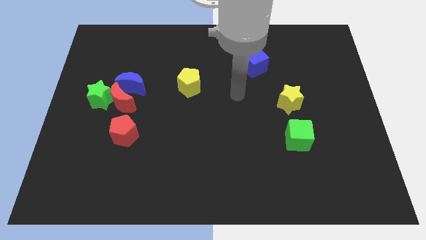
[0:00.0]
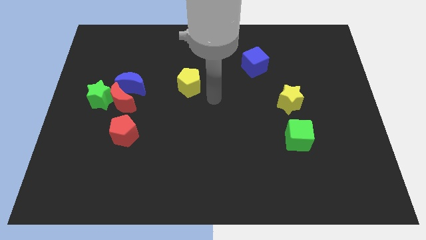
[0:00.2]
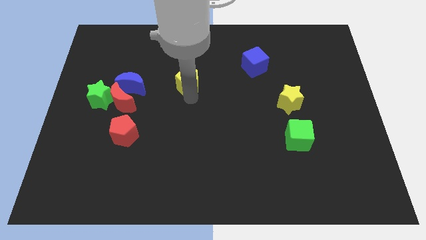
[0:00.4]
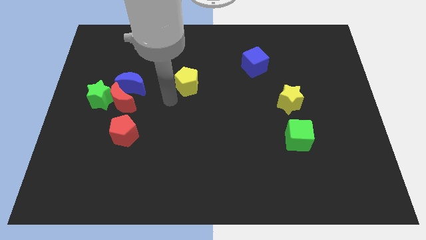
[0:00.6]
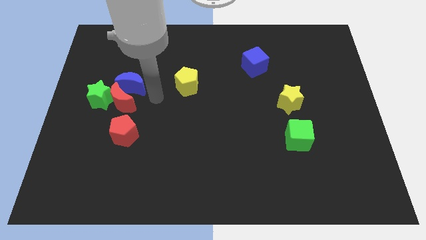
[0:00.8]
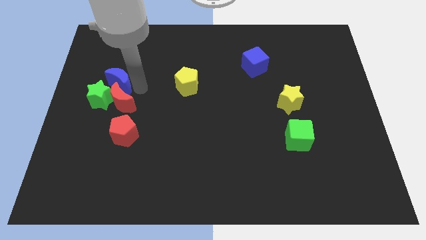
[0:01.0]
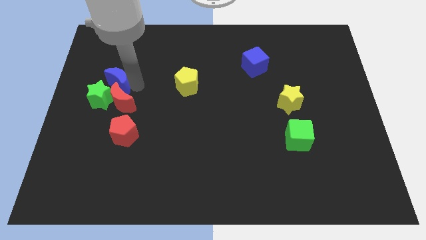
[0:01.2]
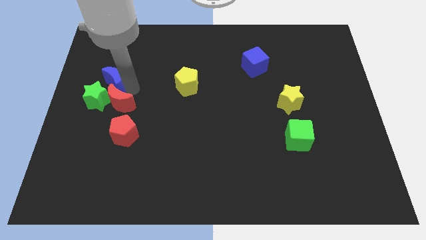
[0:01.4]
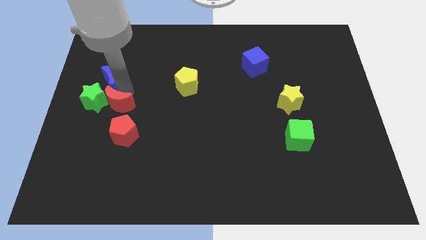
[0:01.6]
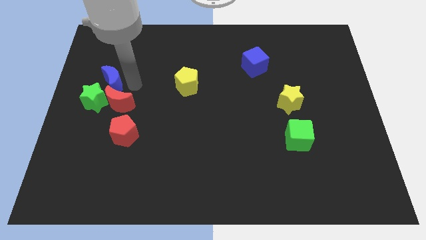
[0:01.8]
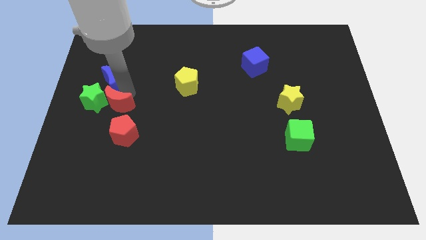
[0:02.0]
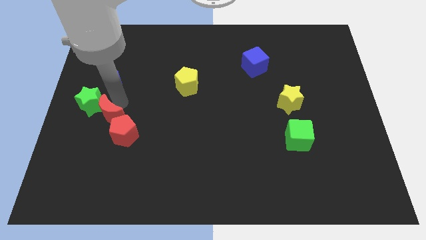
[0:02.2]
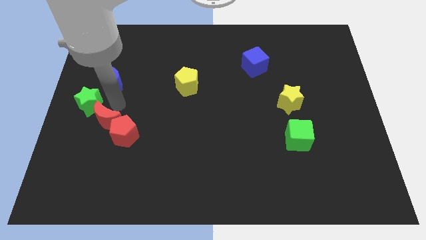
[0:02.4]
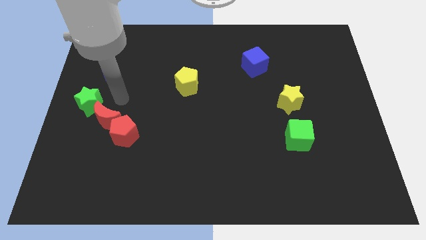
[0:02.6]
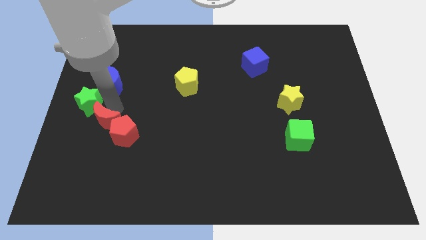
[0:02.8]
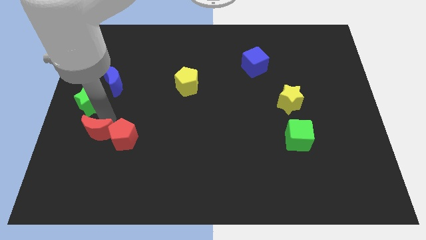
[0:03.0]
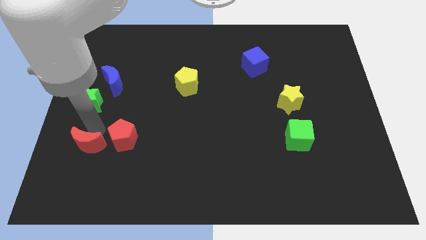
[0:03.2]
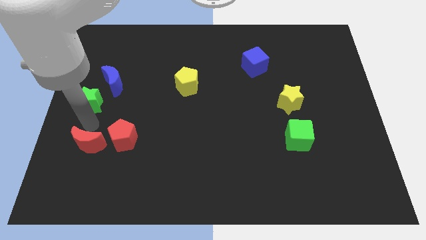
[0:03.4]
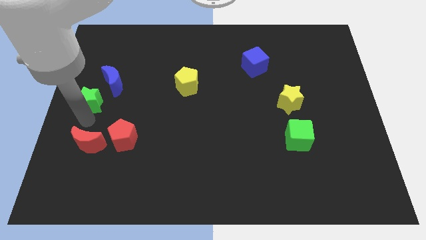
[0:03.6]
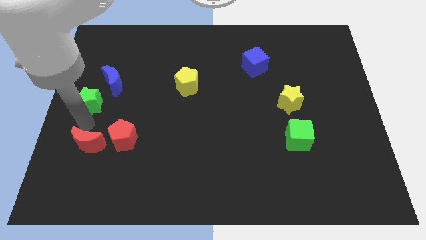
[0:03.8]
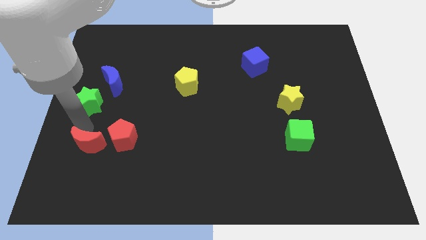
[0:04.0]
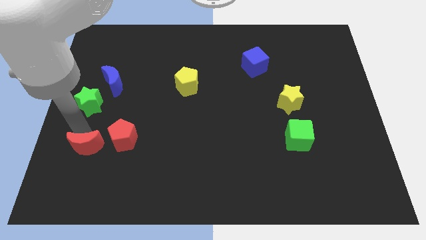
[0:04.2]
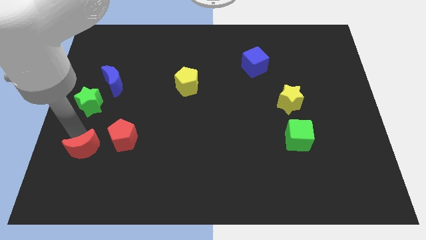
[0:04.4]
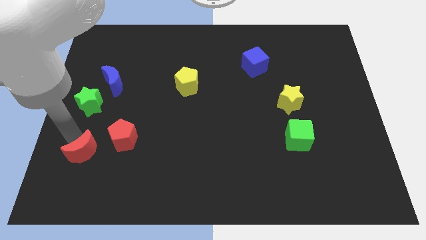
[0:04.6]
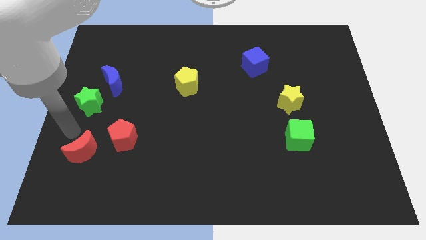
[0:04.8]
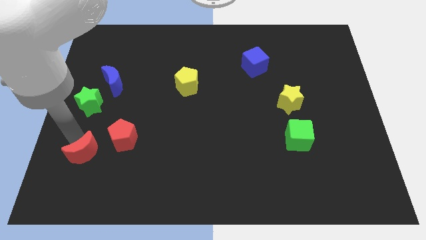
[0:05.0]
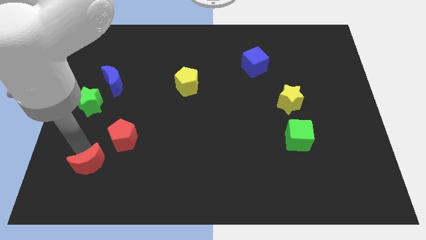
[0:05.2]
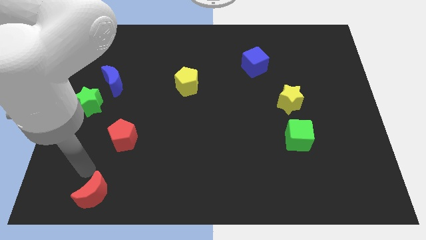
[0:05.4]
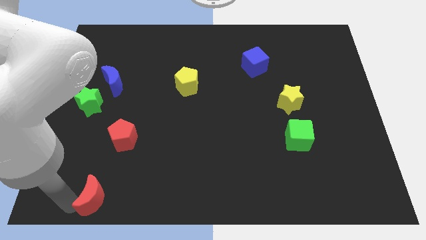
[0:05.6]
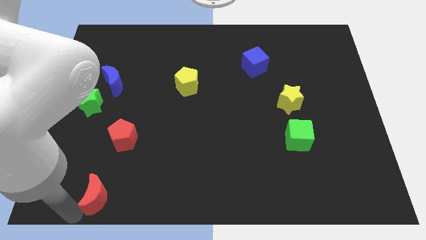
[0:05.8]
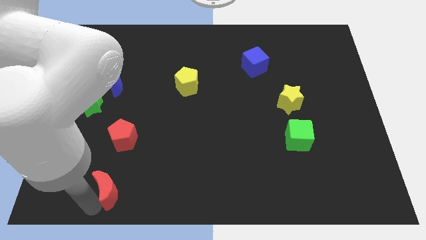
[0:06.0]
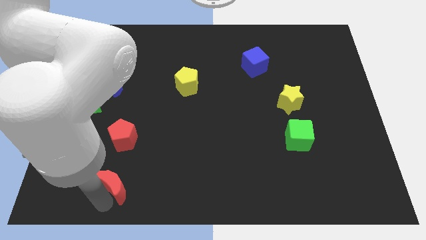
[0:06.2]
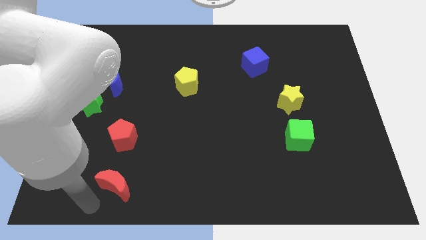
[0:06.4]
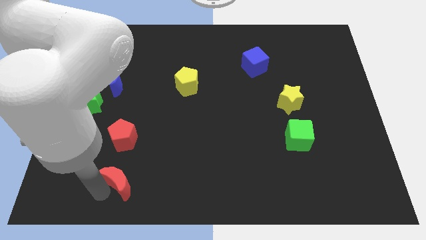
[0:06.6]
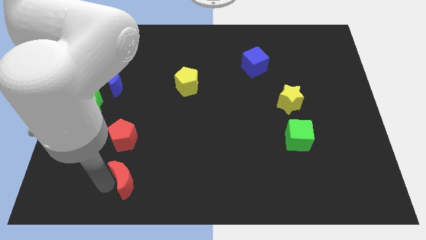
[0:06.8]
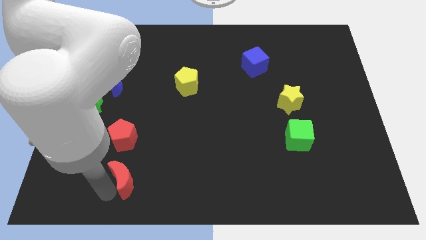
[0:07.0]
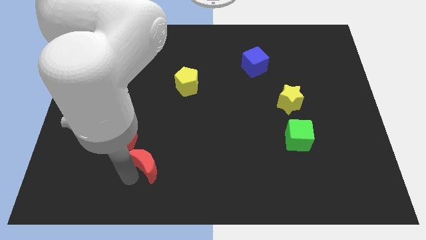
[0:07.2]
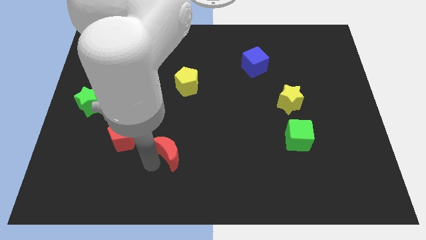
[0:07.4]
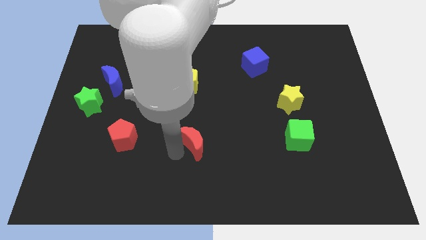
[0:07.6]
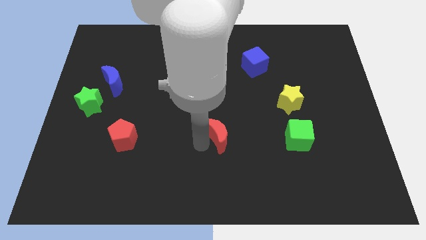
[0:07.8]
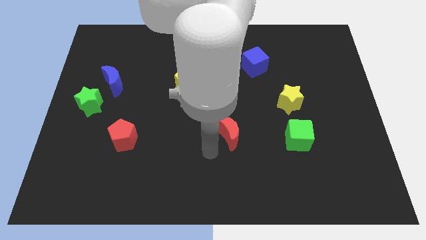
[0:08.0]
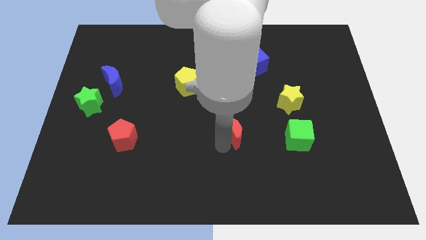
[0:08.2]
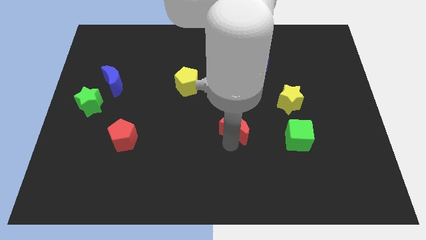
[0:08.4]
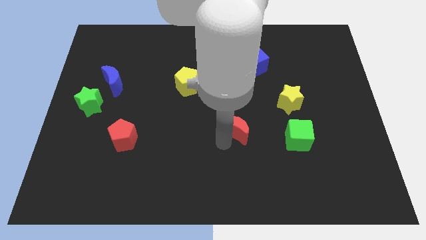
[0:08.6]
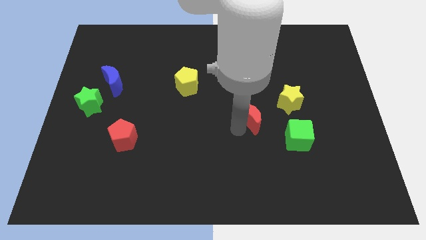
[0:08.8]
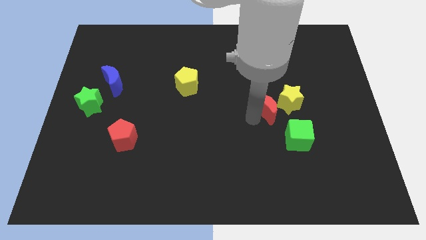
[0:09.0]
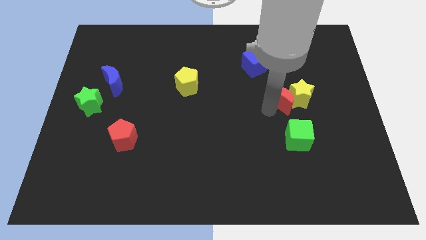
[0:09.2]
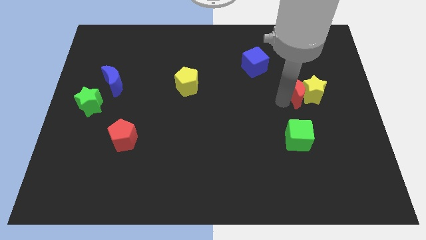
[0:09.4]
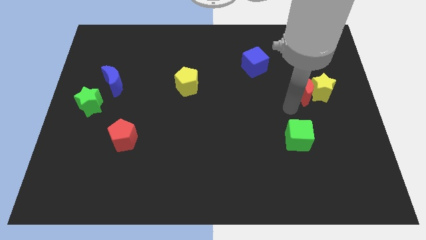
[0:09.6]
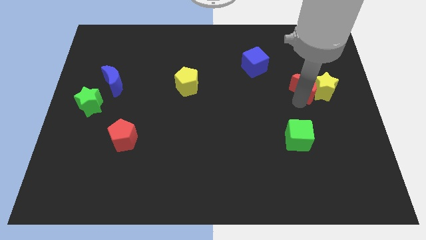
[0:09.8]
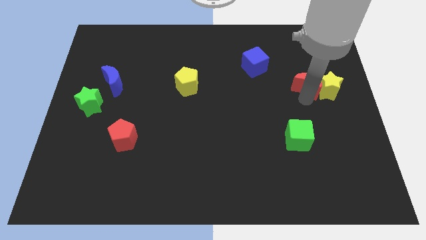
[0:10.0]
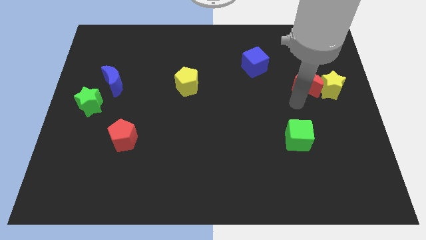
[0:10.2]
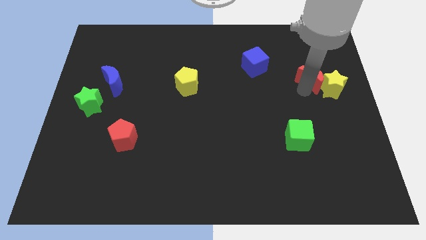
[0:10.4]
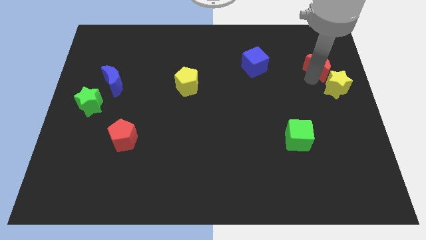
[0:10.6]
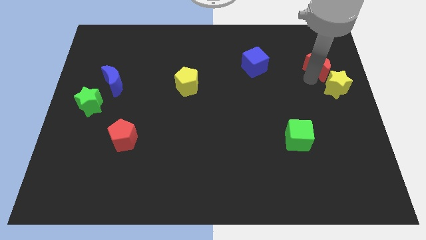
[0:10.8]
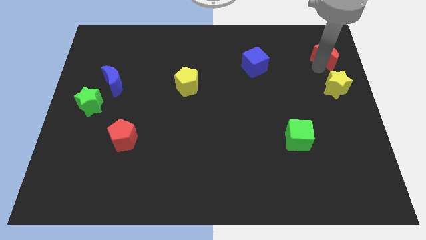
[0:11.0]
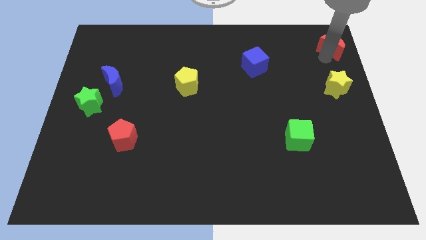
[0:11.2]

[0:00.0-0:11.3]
push the red moon to the top right of the board

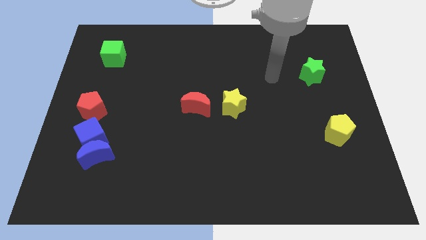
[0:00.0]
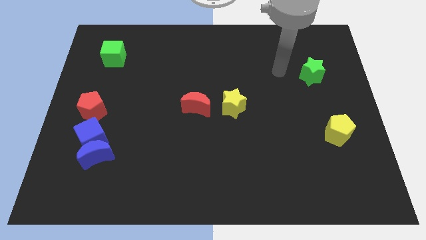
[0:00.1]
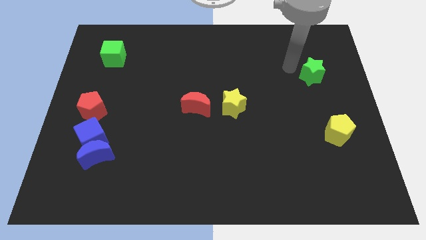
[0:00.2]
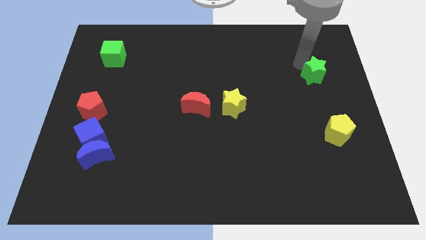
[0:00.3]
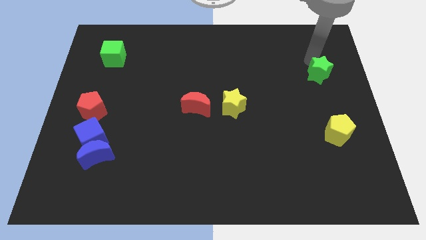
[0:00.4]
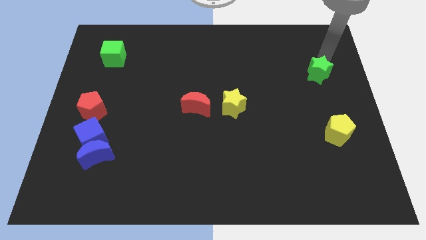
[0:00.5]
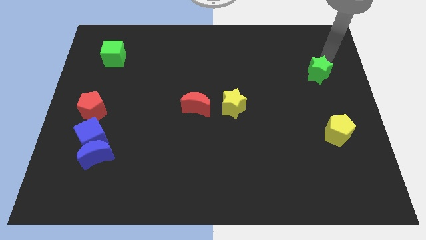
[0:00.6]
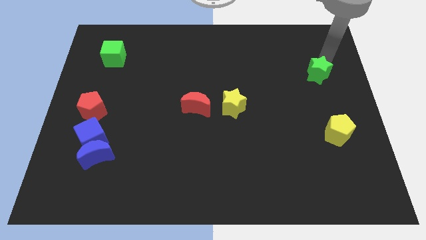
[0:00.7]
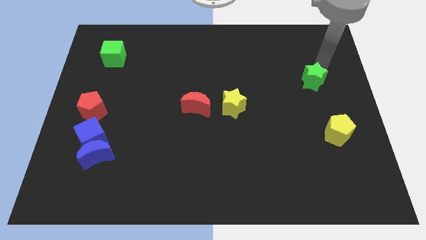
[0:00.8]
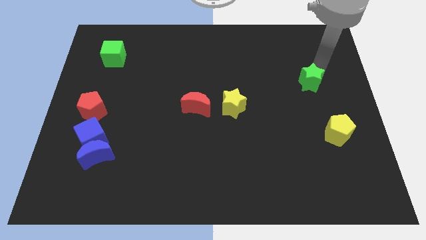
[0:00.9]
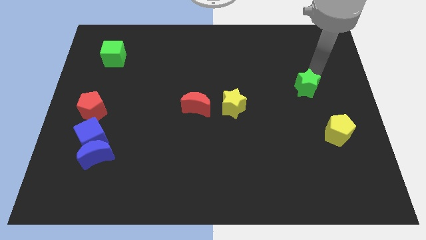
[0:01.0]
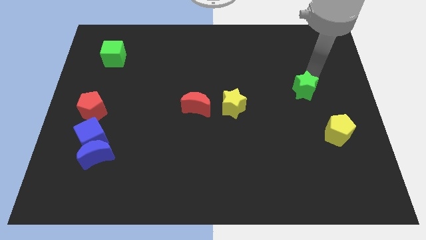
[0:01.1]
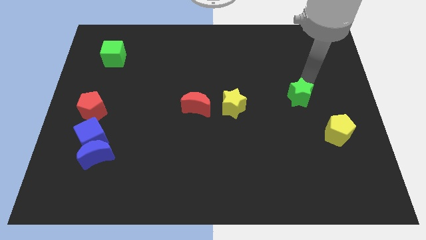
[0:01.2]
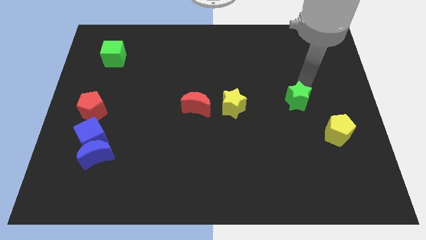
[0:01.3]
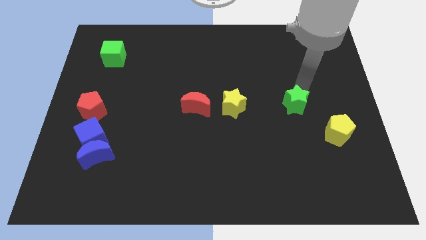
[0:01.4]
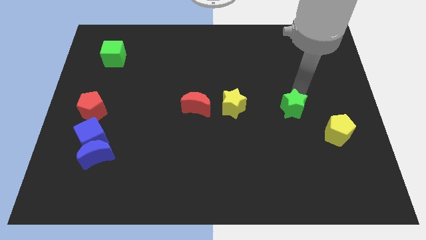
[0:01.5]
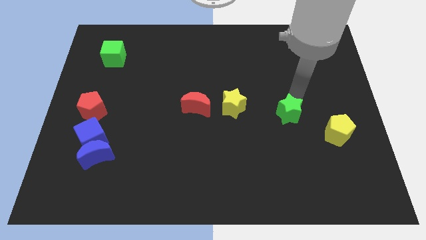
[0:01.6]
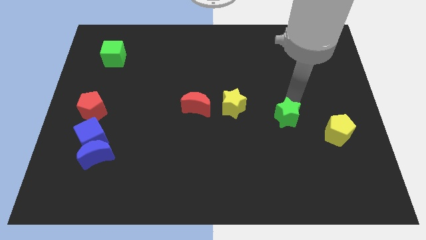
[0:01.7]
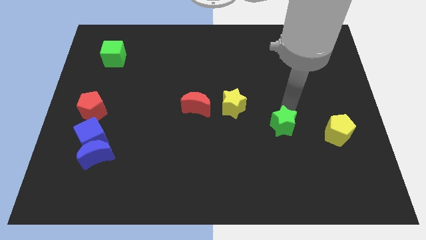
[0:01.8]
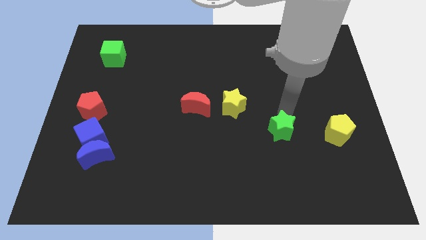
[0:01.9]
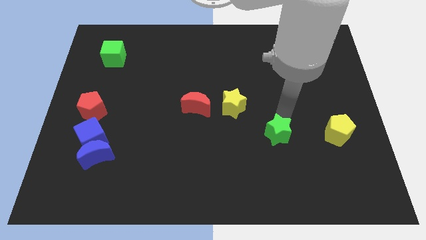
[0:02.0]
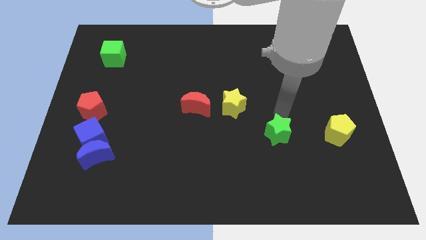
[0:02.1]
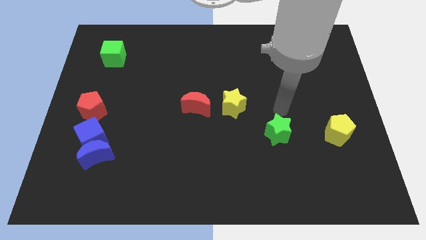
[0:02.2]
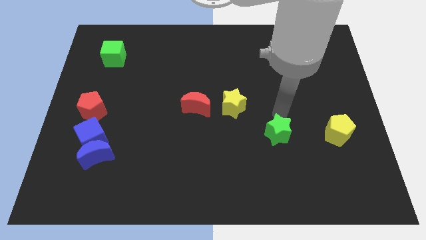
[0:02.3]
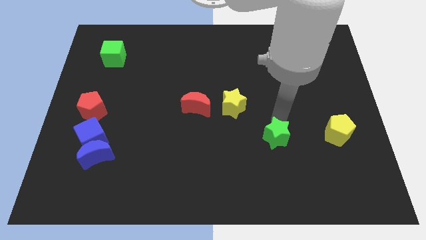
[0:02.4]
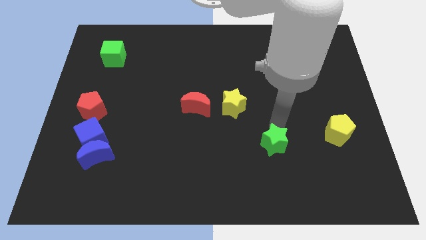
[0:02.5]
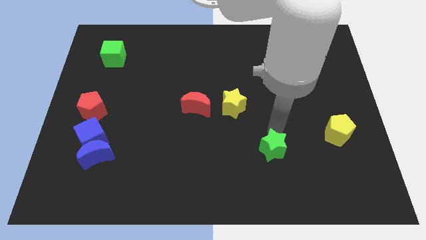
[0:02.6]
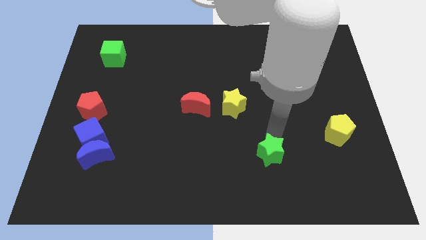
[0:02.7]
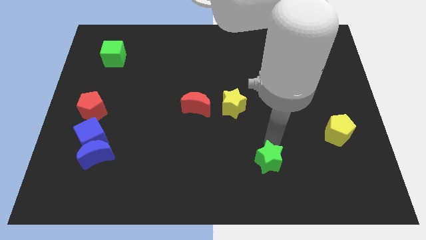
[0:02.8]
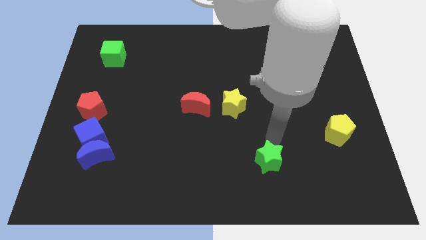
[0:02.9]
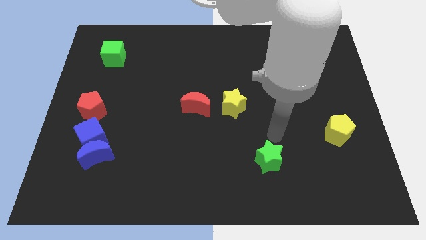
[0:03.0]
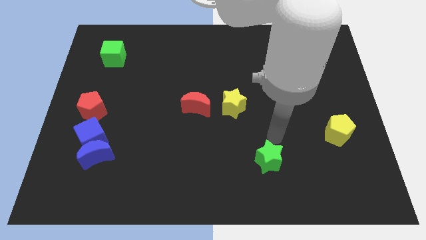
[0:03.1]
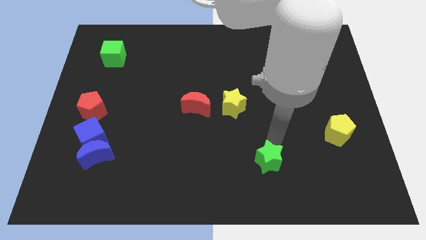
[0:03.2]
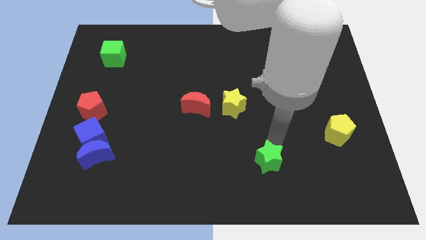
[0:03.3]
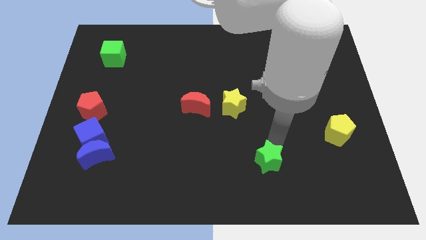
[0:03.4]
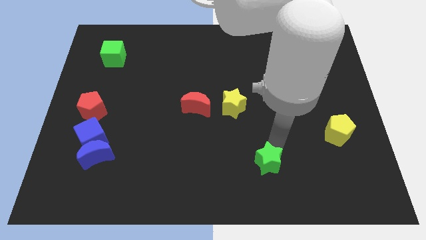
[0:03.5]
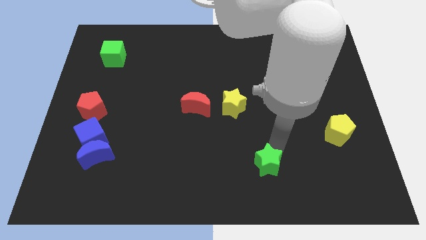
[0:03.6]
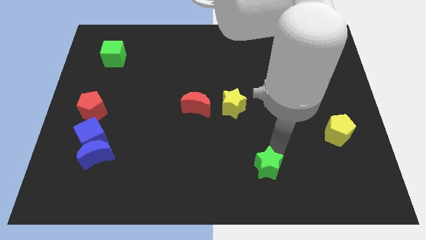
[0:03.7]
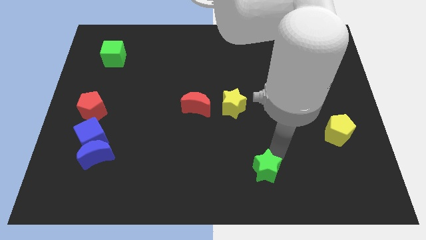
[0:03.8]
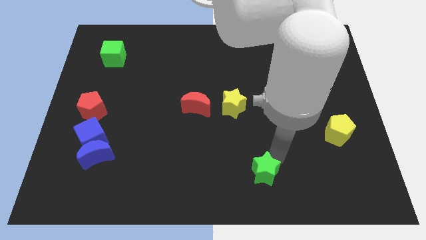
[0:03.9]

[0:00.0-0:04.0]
push the green star to the bottom
